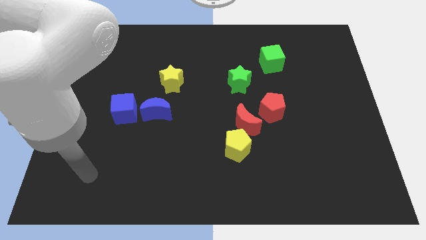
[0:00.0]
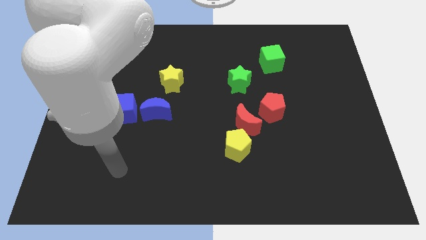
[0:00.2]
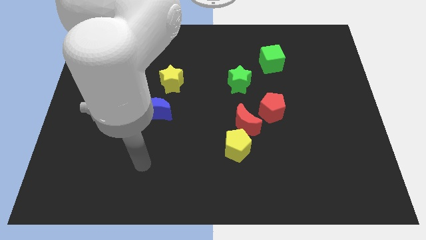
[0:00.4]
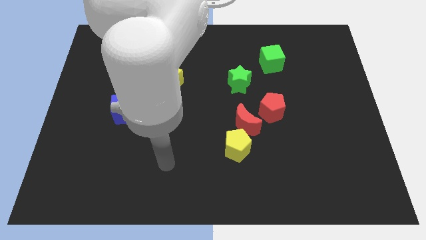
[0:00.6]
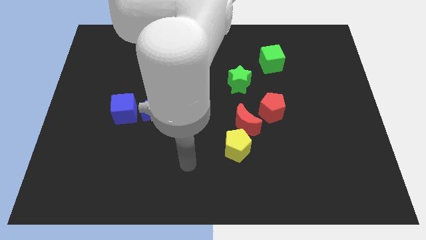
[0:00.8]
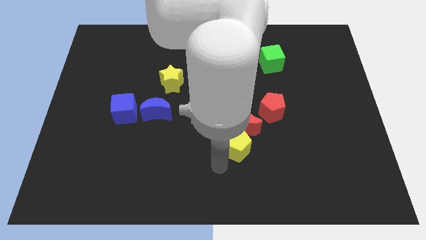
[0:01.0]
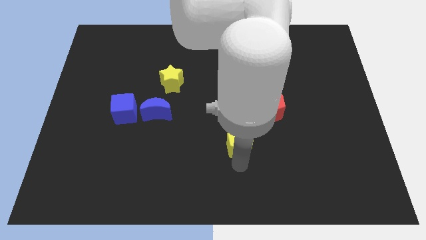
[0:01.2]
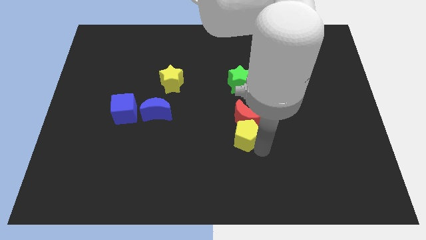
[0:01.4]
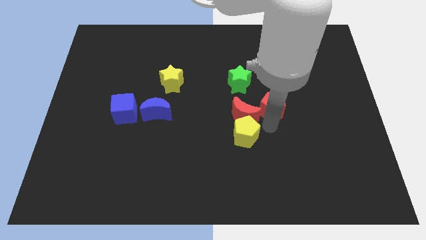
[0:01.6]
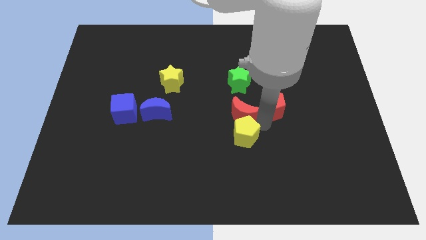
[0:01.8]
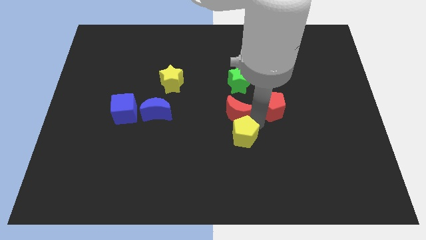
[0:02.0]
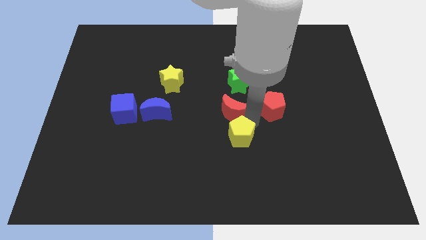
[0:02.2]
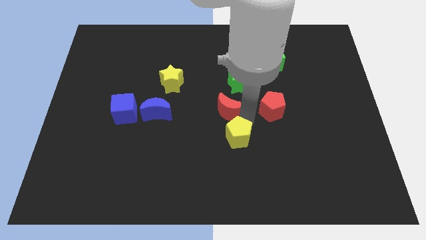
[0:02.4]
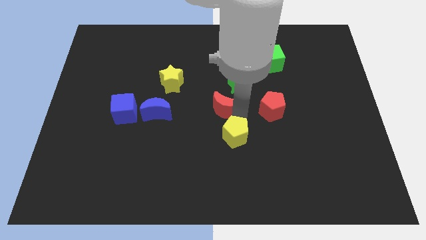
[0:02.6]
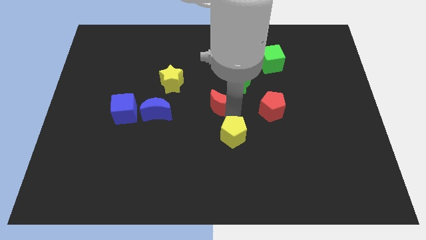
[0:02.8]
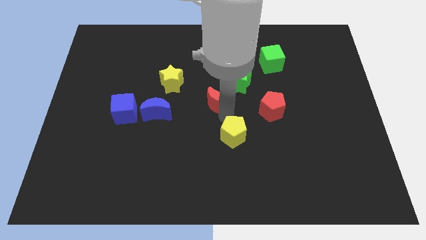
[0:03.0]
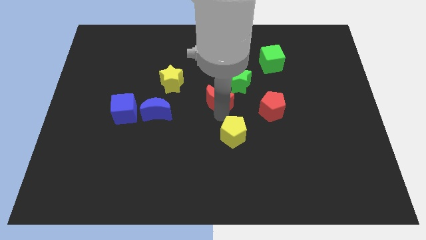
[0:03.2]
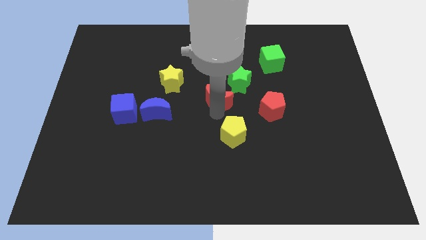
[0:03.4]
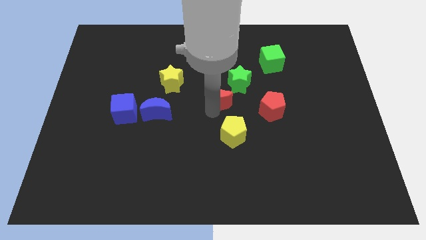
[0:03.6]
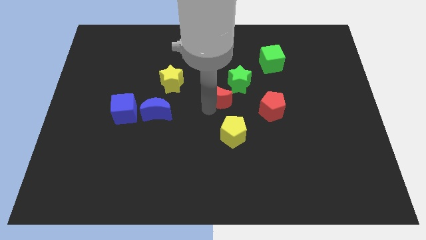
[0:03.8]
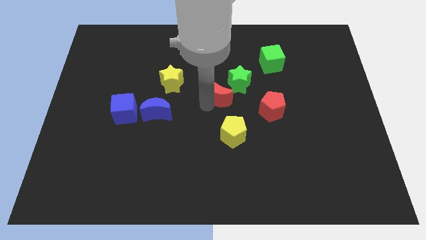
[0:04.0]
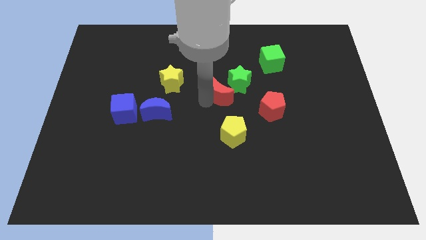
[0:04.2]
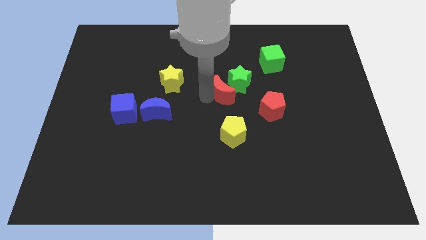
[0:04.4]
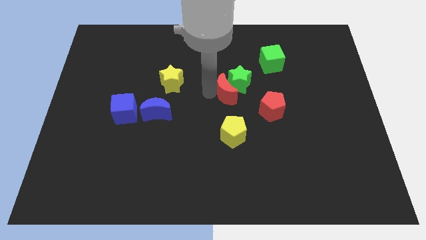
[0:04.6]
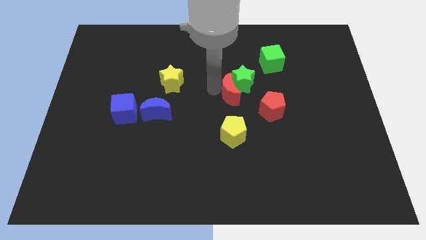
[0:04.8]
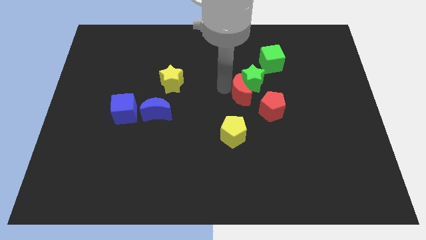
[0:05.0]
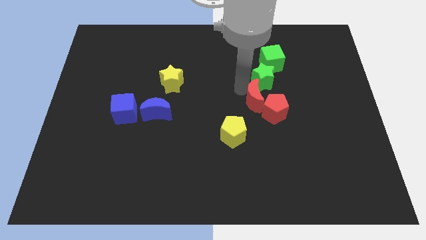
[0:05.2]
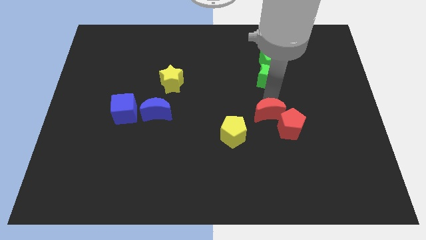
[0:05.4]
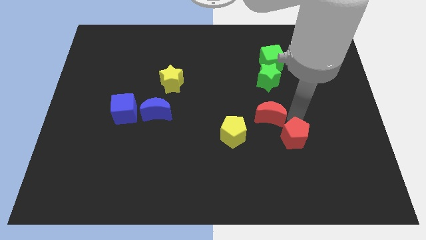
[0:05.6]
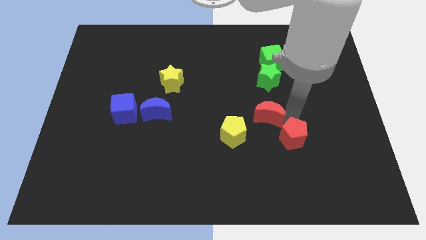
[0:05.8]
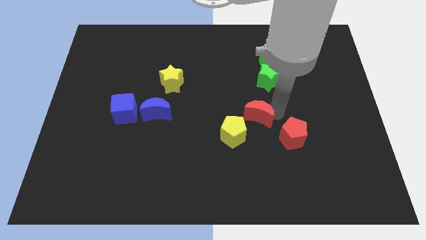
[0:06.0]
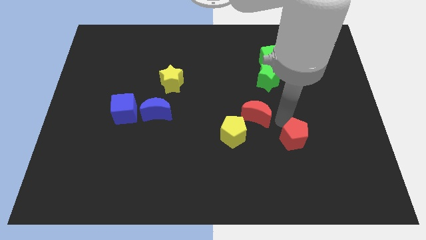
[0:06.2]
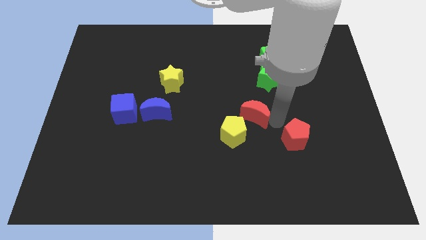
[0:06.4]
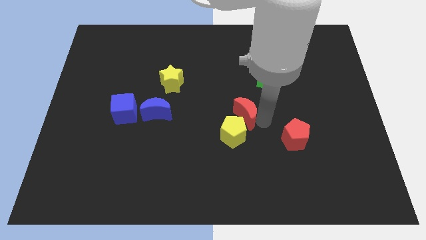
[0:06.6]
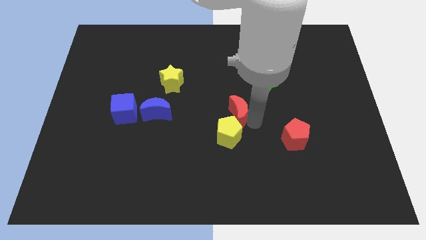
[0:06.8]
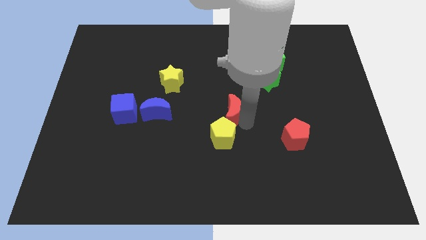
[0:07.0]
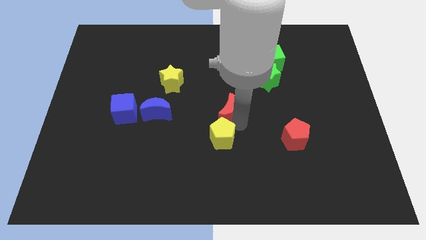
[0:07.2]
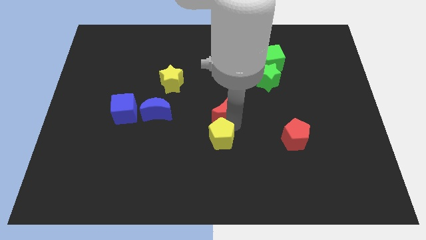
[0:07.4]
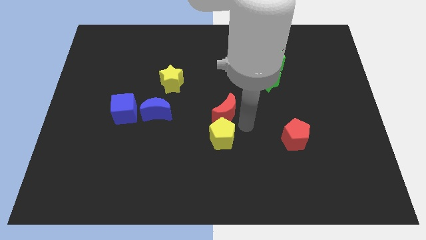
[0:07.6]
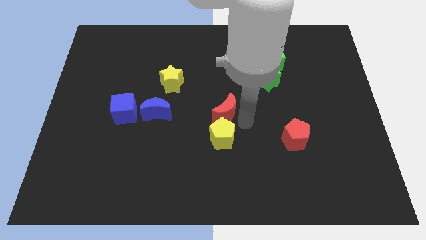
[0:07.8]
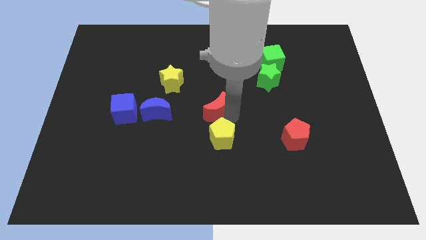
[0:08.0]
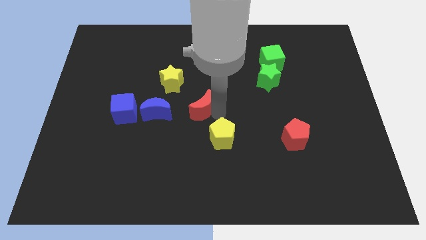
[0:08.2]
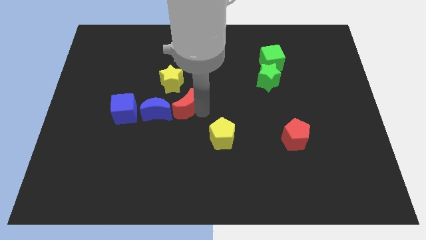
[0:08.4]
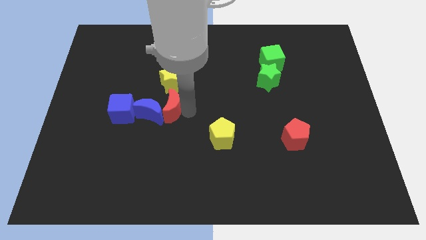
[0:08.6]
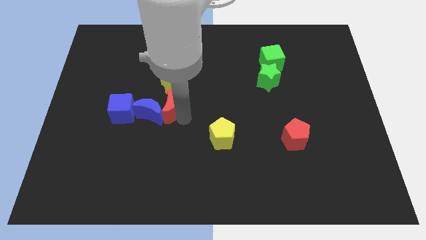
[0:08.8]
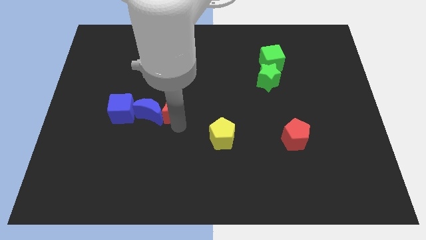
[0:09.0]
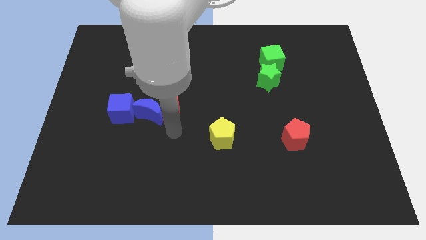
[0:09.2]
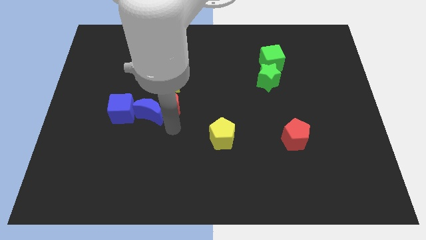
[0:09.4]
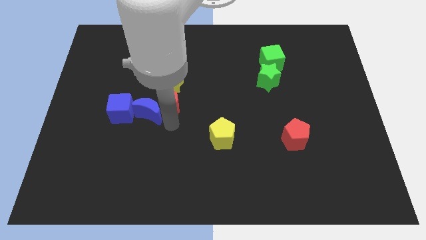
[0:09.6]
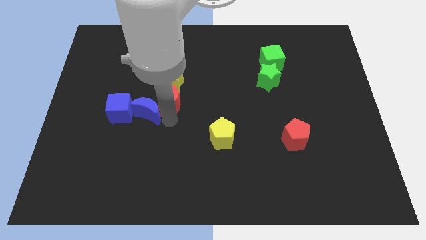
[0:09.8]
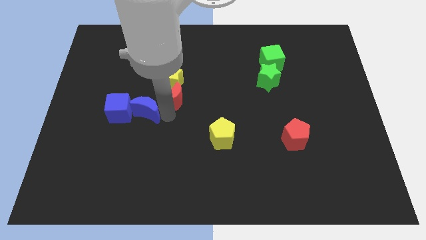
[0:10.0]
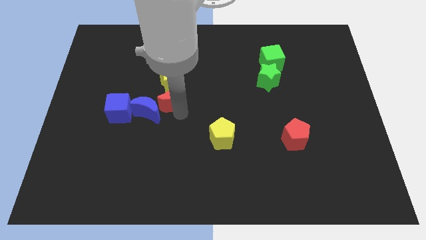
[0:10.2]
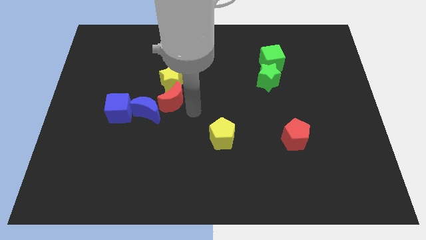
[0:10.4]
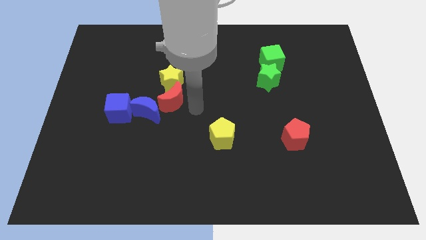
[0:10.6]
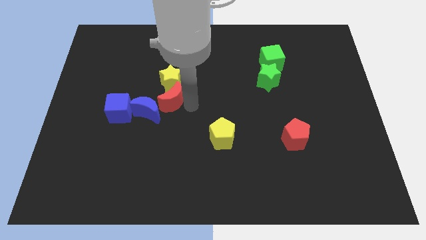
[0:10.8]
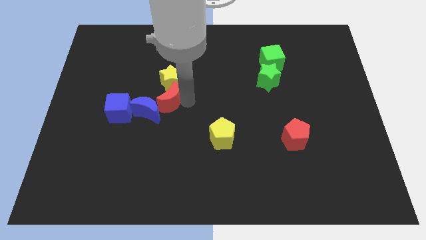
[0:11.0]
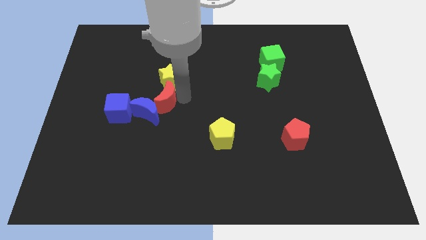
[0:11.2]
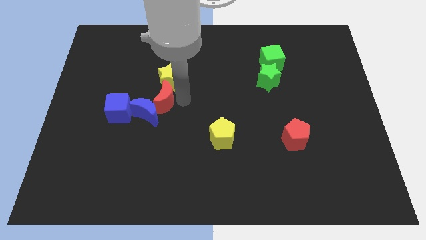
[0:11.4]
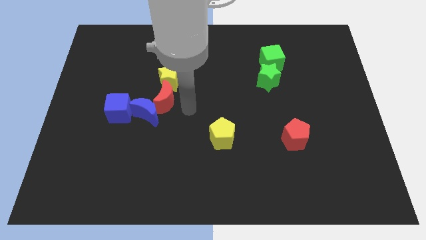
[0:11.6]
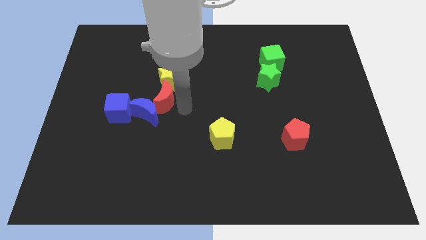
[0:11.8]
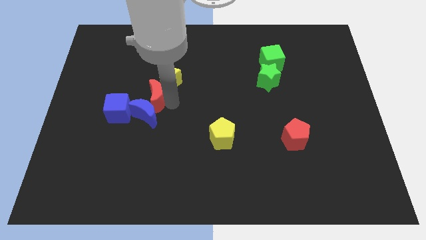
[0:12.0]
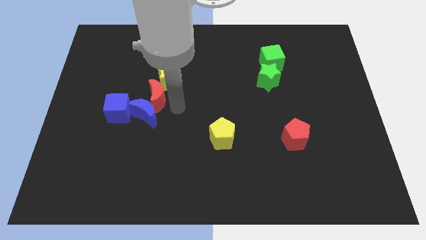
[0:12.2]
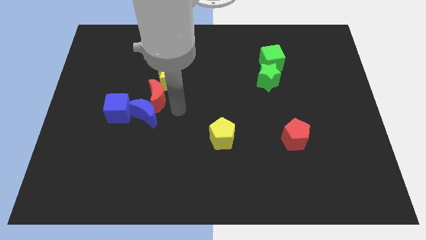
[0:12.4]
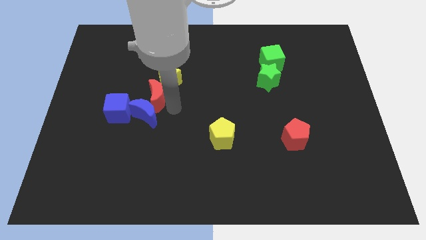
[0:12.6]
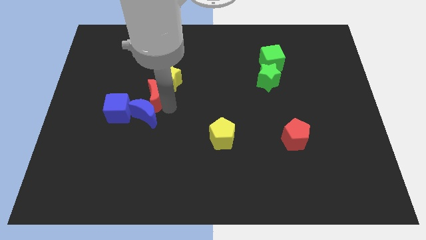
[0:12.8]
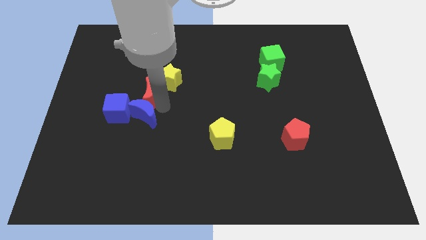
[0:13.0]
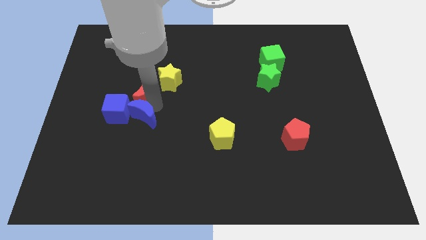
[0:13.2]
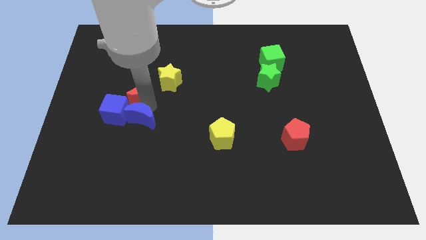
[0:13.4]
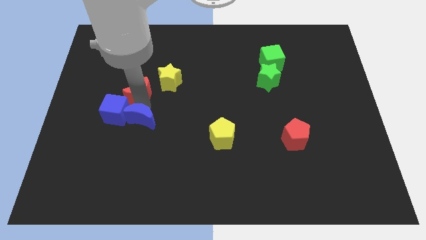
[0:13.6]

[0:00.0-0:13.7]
push the red moon to the top of the blue cube
